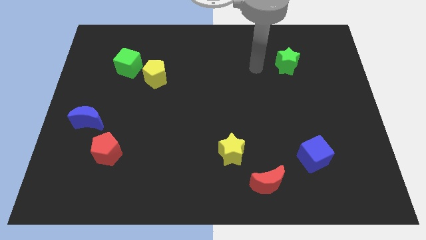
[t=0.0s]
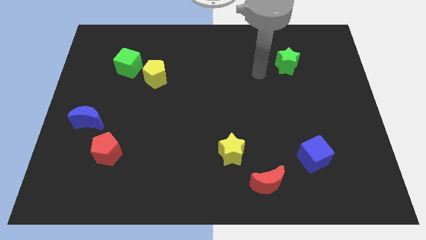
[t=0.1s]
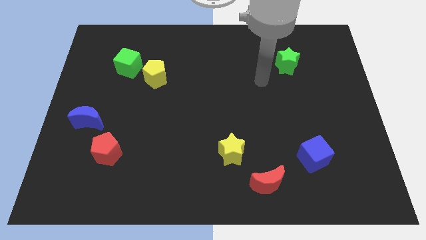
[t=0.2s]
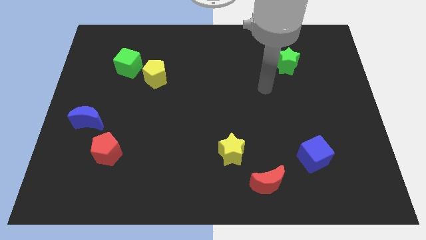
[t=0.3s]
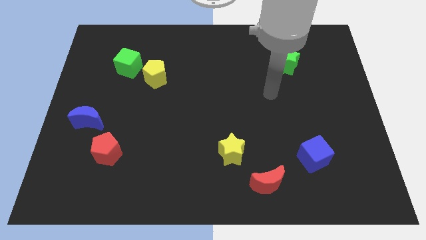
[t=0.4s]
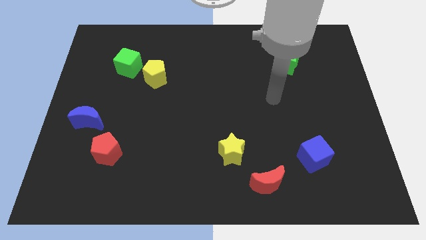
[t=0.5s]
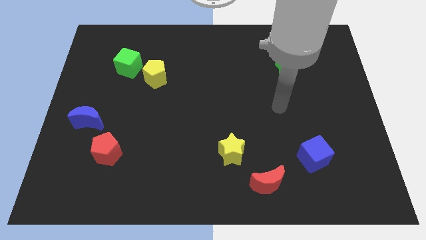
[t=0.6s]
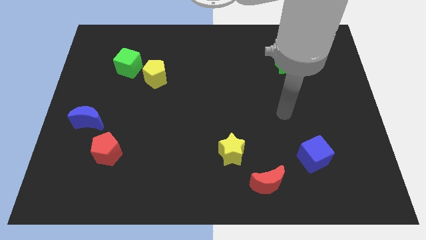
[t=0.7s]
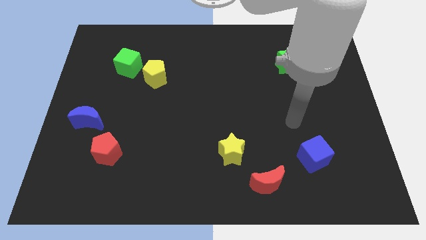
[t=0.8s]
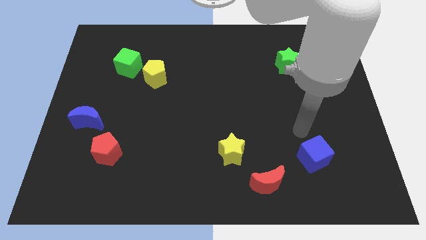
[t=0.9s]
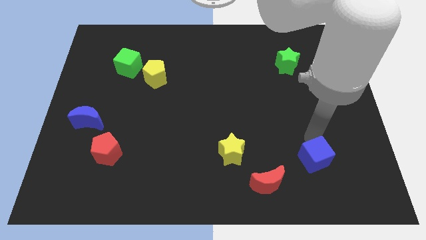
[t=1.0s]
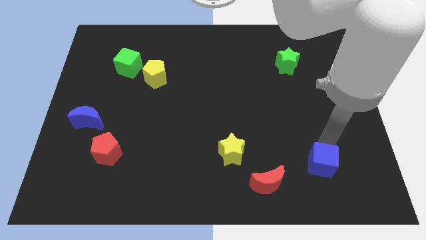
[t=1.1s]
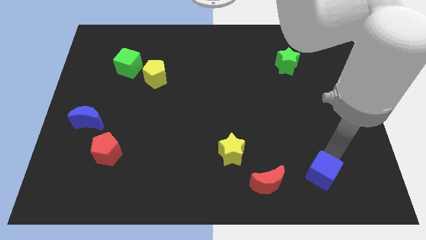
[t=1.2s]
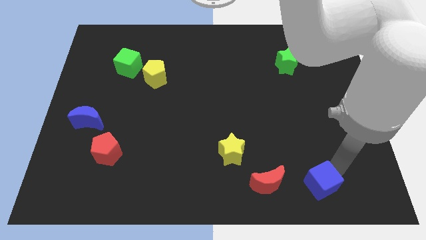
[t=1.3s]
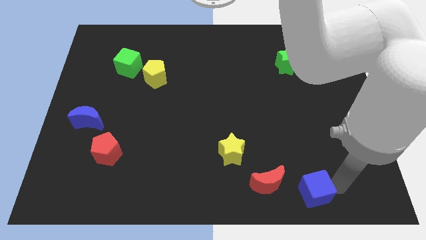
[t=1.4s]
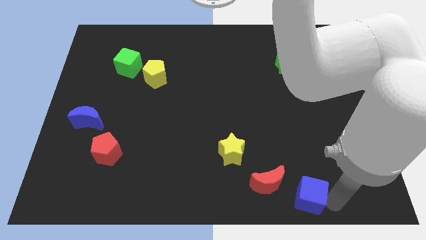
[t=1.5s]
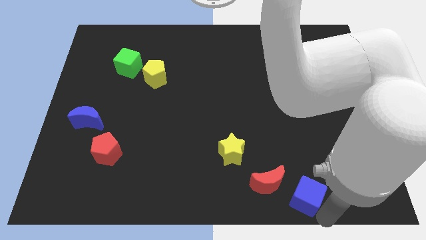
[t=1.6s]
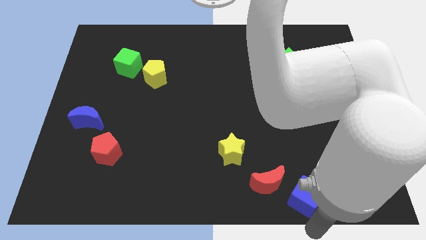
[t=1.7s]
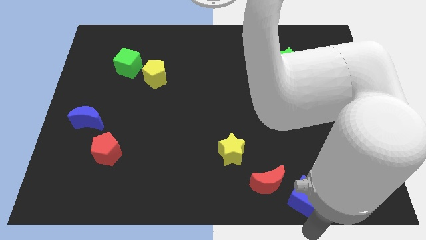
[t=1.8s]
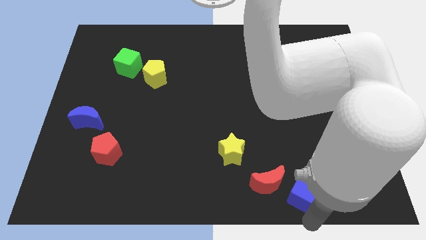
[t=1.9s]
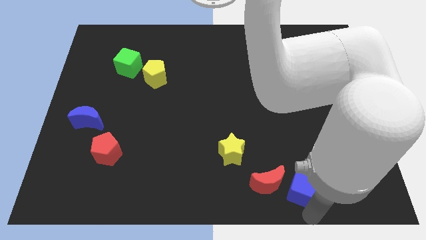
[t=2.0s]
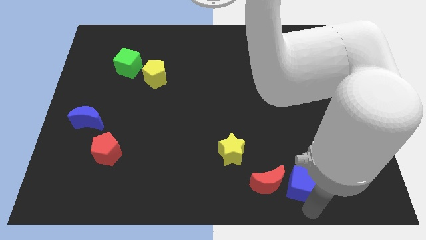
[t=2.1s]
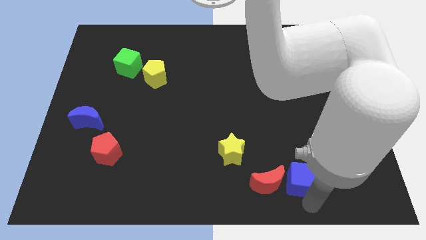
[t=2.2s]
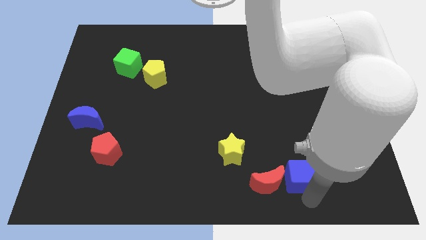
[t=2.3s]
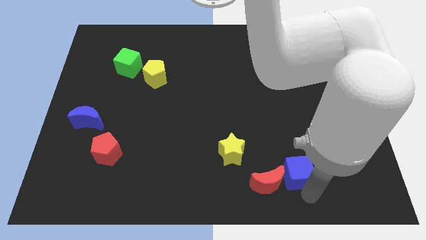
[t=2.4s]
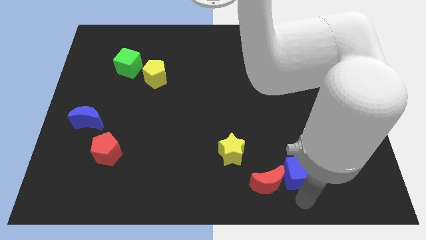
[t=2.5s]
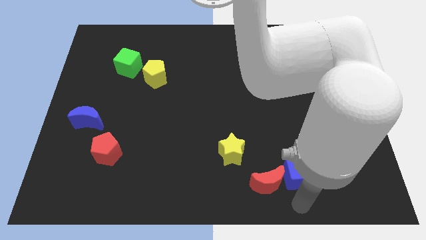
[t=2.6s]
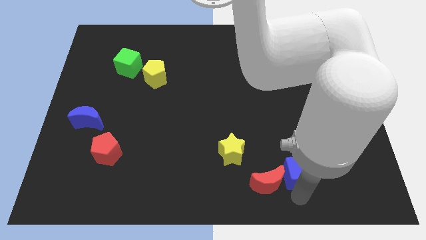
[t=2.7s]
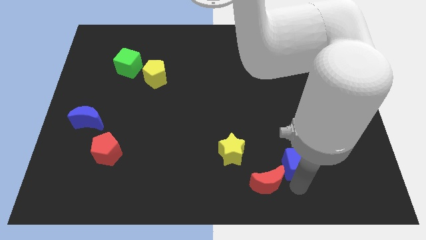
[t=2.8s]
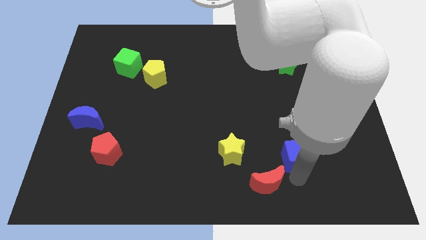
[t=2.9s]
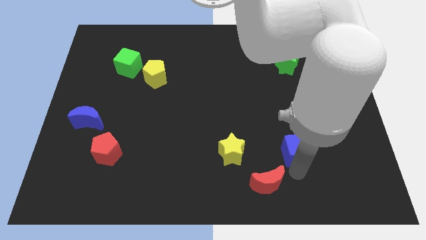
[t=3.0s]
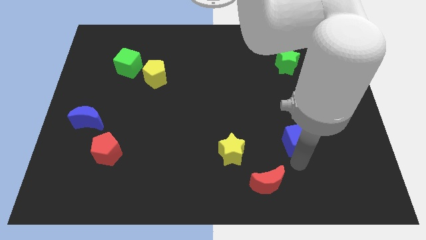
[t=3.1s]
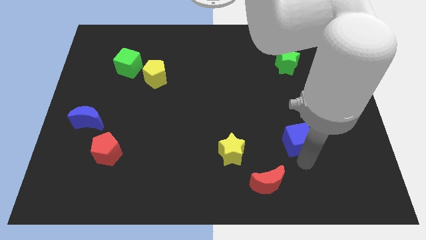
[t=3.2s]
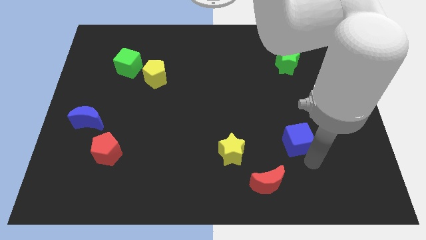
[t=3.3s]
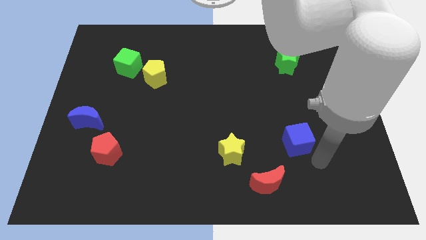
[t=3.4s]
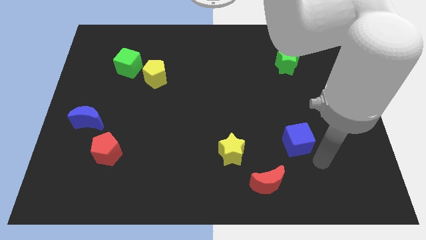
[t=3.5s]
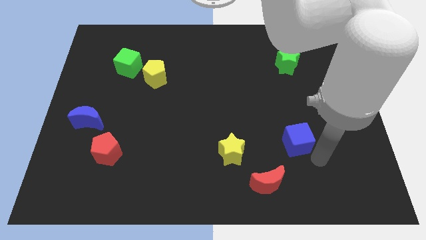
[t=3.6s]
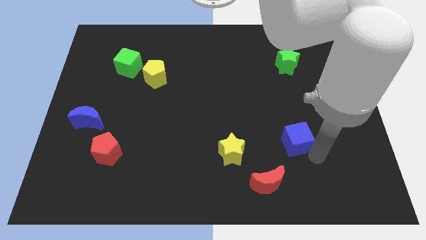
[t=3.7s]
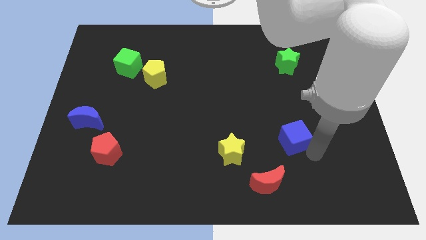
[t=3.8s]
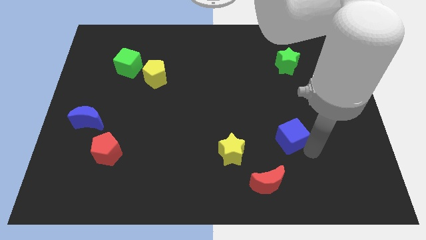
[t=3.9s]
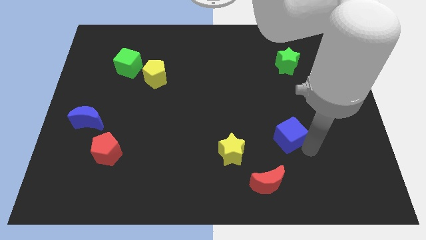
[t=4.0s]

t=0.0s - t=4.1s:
slightly move the blue cube upwards and left

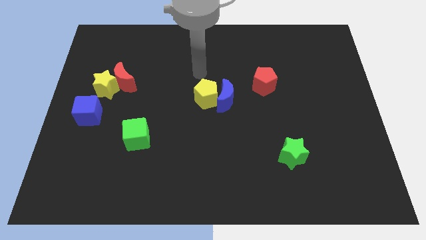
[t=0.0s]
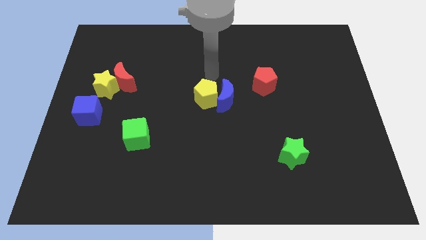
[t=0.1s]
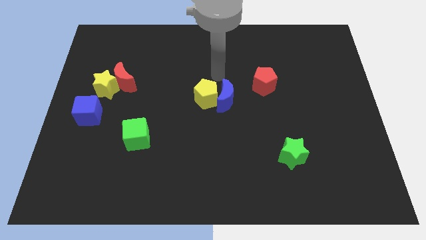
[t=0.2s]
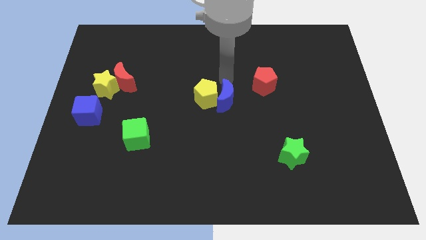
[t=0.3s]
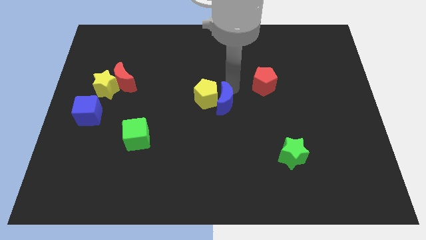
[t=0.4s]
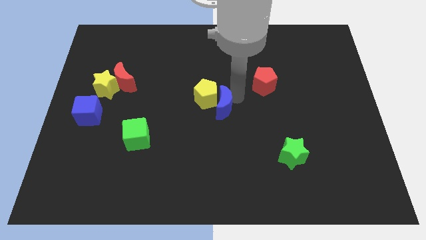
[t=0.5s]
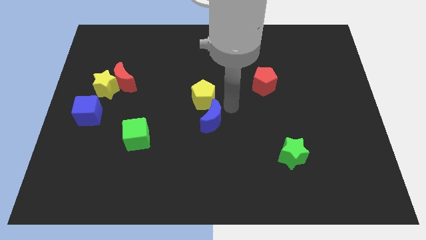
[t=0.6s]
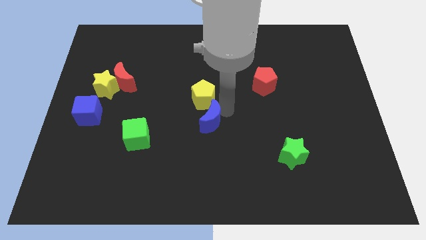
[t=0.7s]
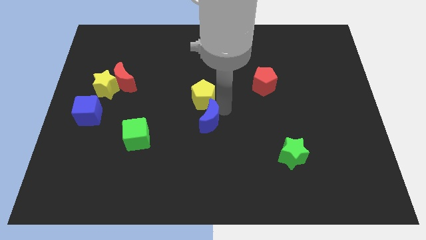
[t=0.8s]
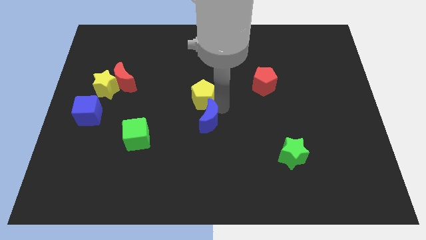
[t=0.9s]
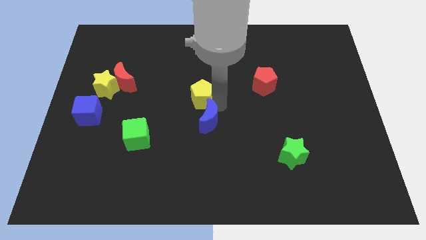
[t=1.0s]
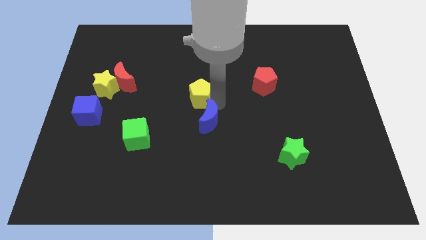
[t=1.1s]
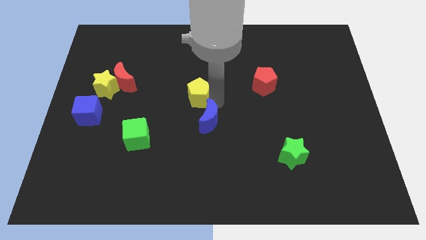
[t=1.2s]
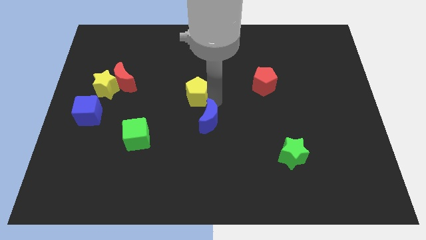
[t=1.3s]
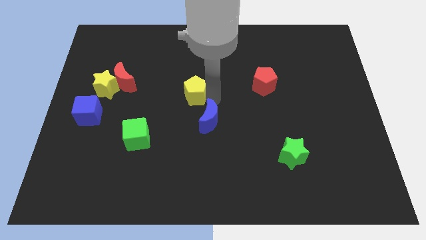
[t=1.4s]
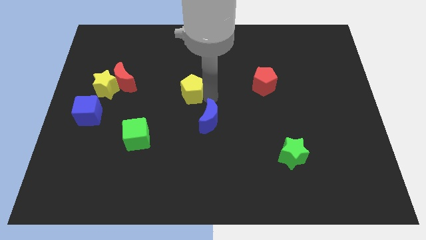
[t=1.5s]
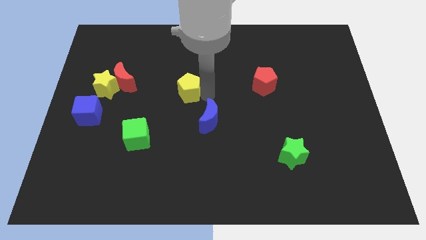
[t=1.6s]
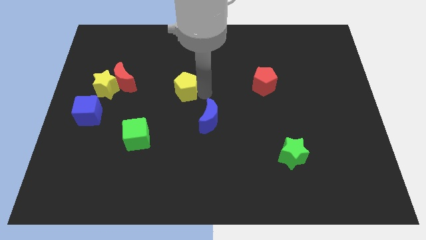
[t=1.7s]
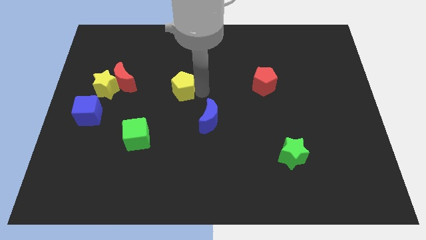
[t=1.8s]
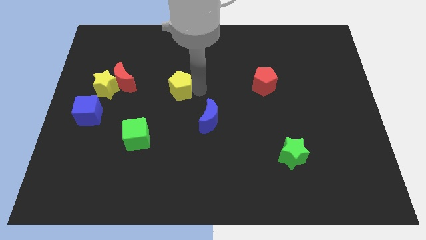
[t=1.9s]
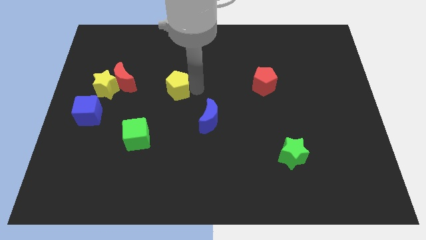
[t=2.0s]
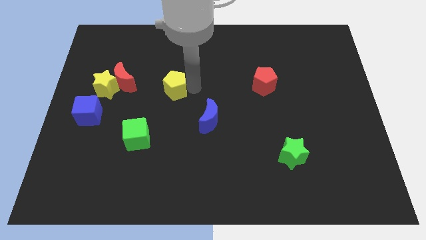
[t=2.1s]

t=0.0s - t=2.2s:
push the yellow pentagon upwards and to the left a little

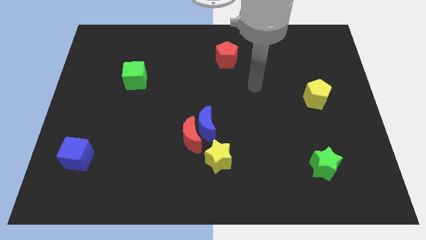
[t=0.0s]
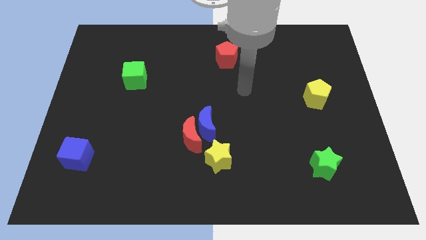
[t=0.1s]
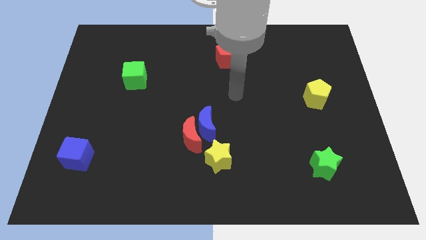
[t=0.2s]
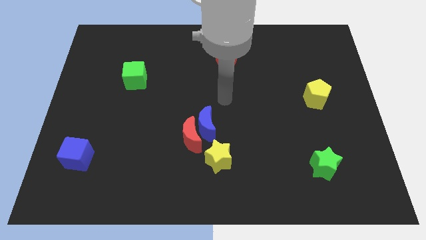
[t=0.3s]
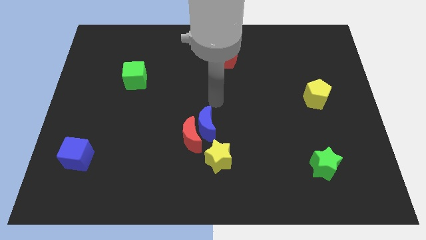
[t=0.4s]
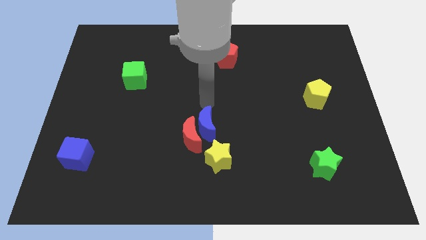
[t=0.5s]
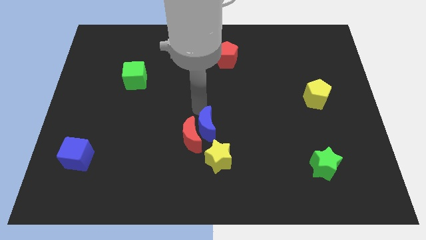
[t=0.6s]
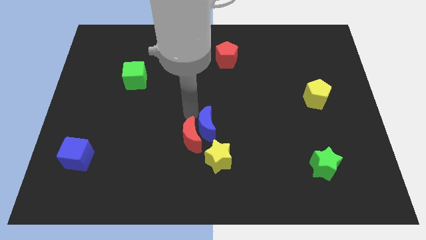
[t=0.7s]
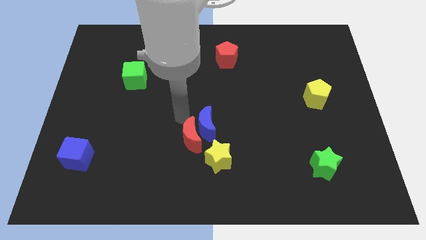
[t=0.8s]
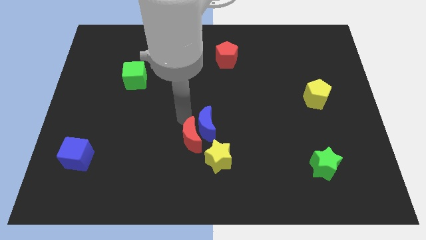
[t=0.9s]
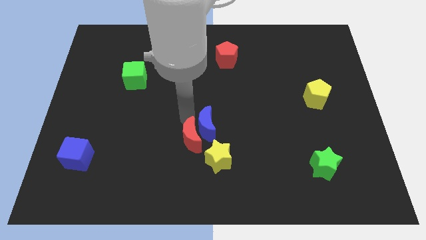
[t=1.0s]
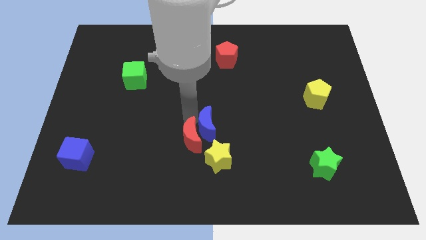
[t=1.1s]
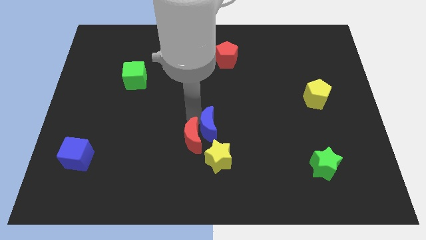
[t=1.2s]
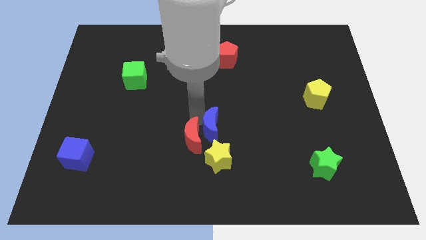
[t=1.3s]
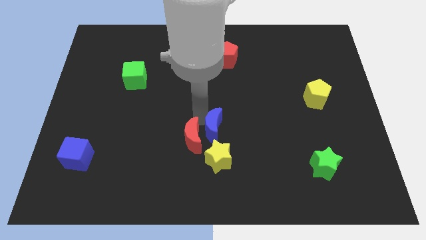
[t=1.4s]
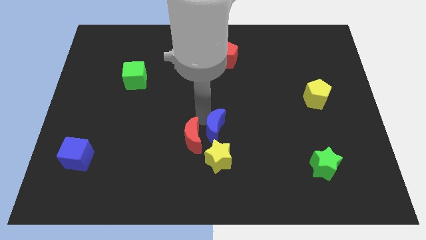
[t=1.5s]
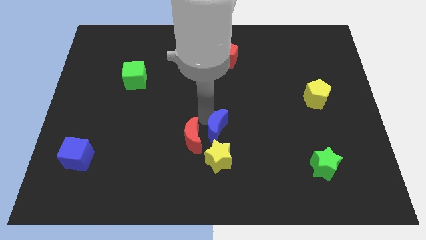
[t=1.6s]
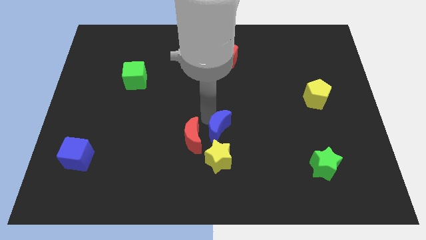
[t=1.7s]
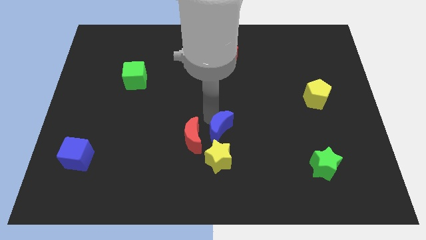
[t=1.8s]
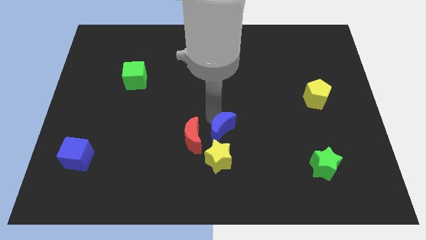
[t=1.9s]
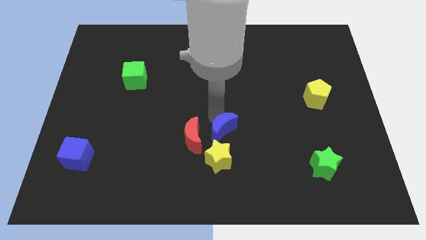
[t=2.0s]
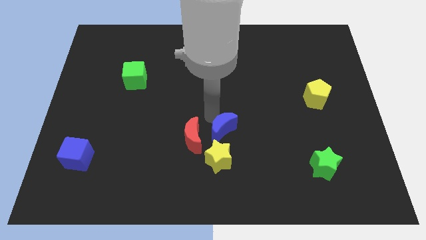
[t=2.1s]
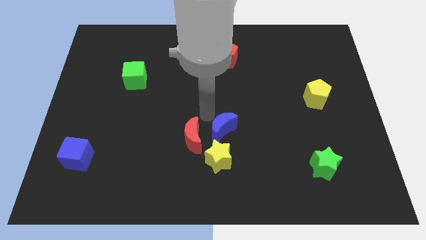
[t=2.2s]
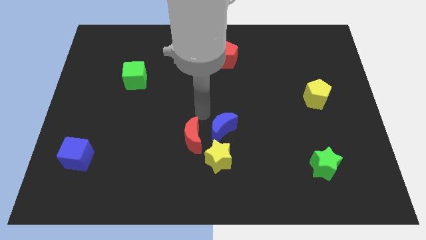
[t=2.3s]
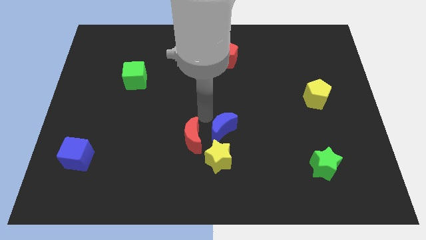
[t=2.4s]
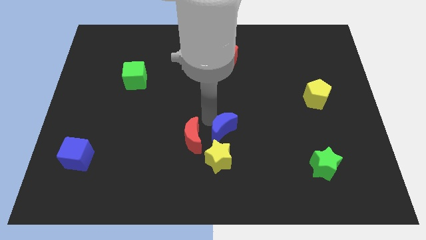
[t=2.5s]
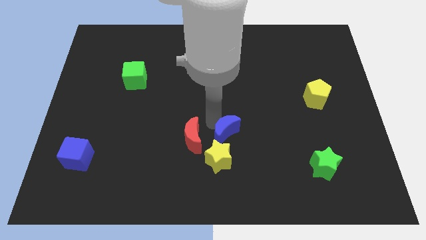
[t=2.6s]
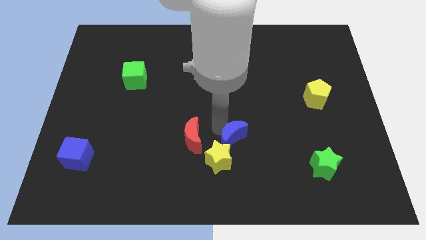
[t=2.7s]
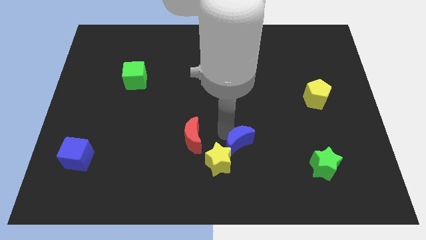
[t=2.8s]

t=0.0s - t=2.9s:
move the blue moon a little downwards and right diagonally
